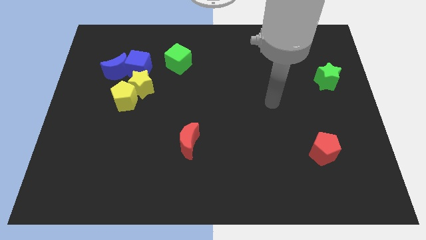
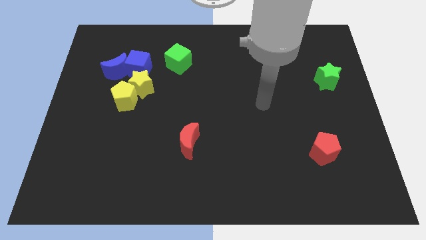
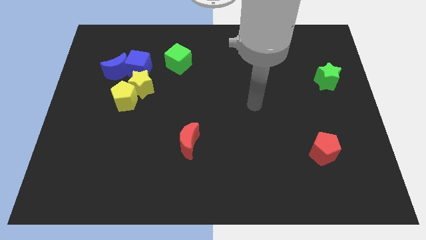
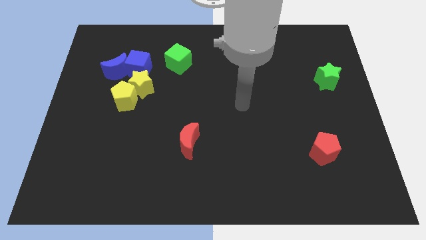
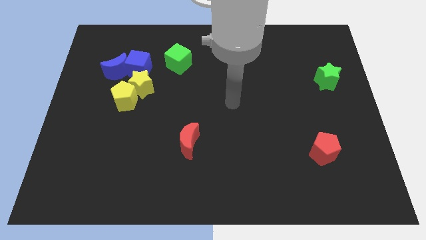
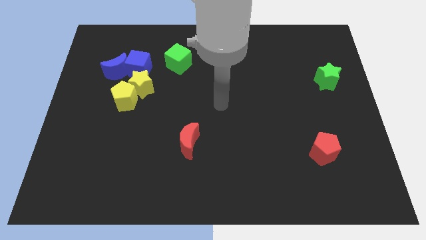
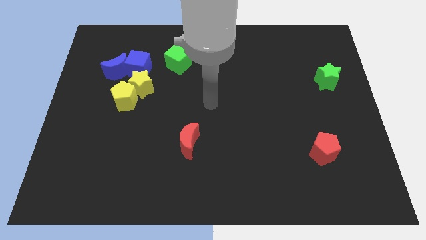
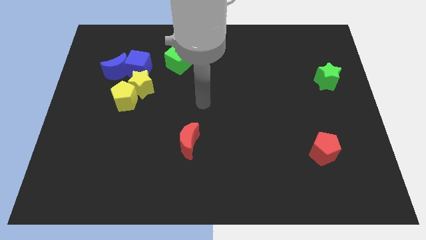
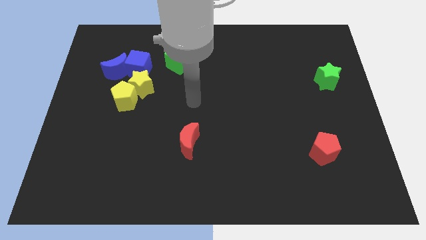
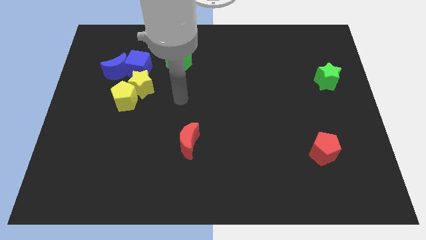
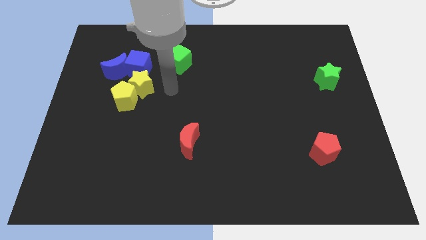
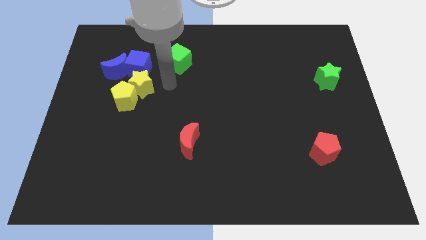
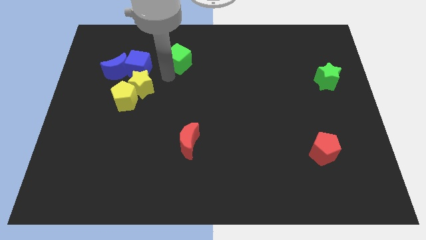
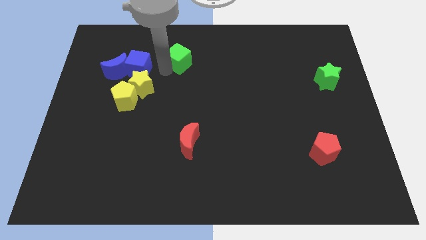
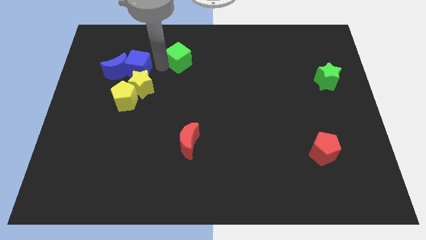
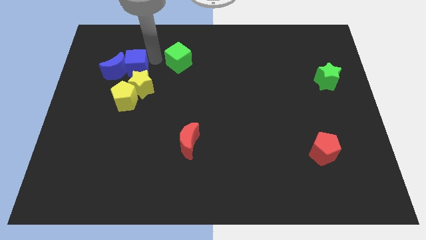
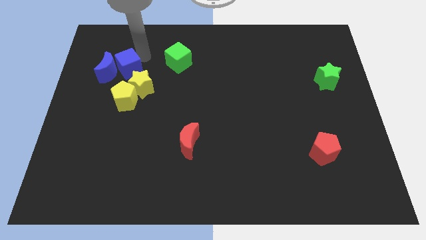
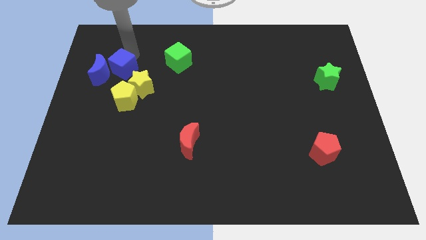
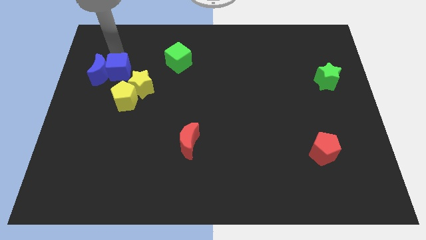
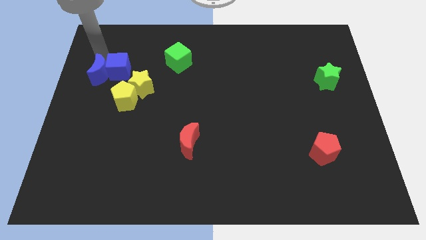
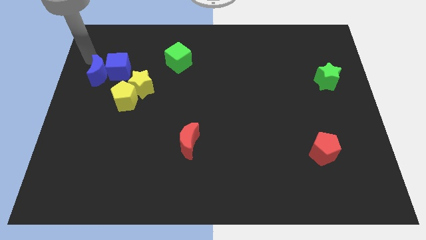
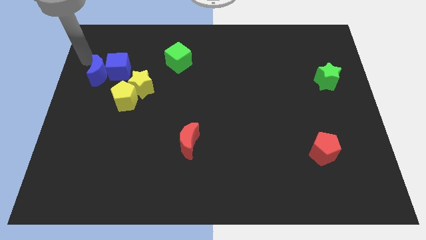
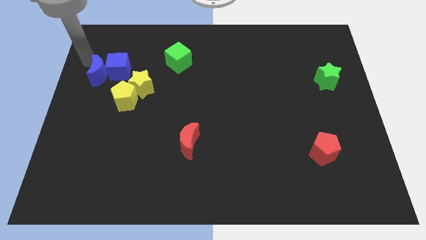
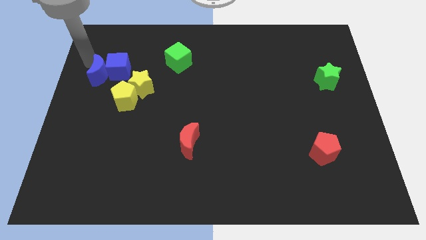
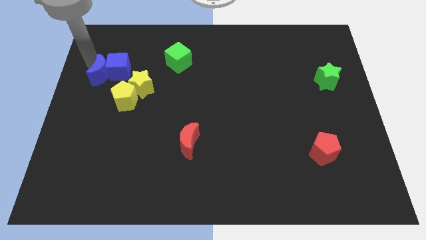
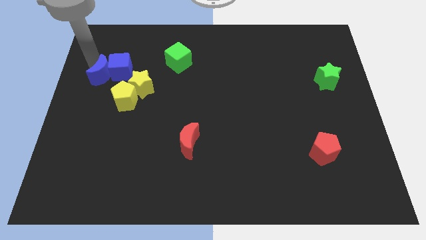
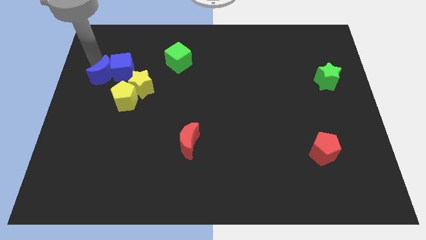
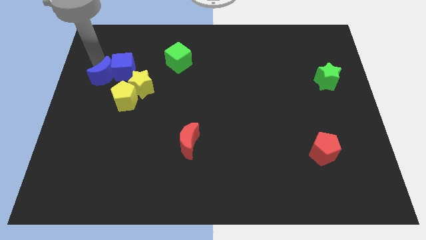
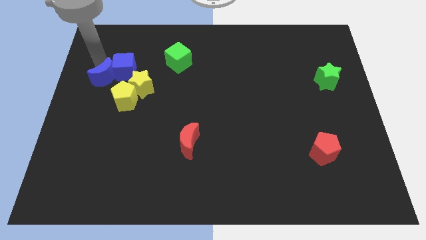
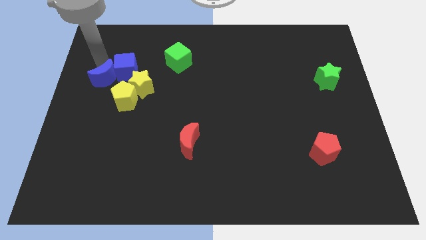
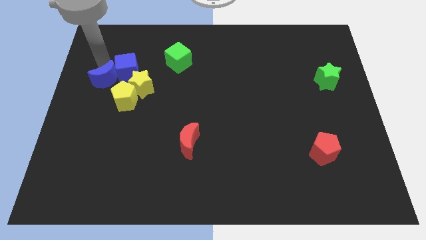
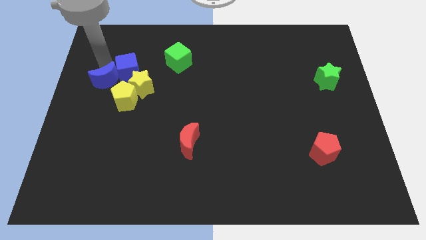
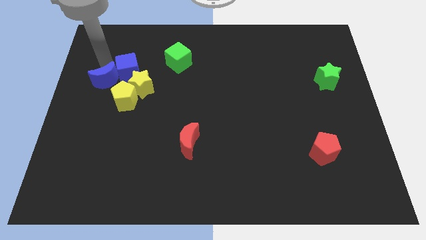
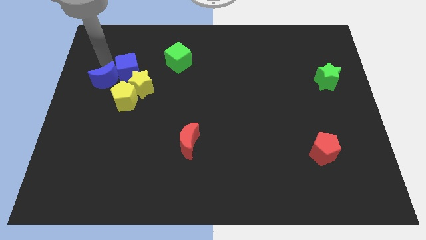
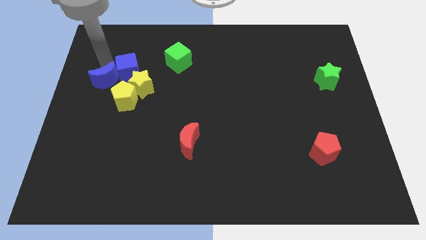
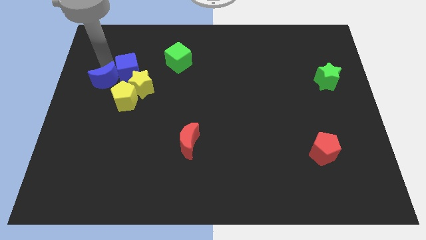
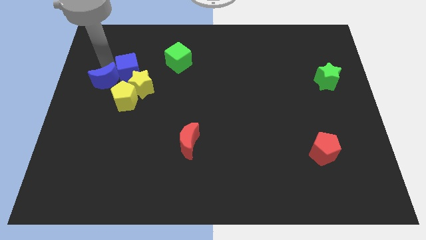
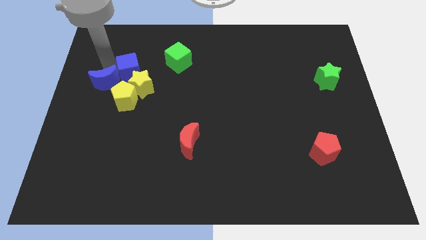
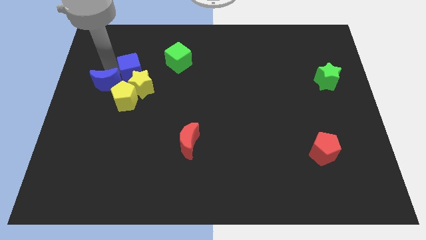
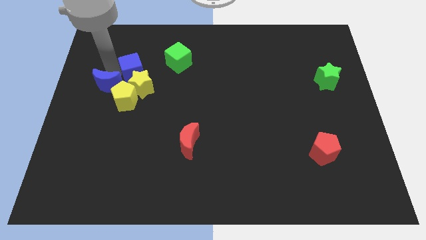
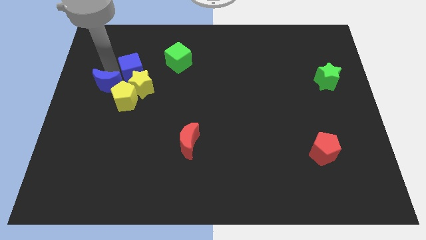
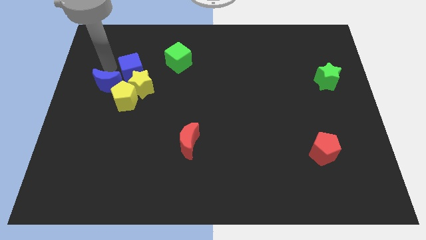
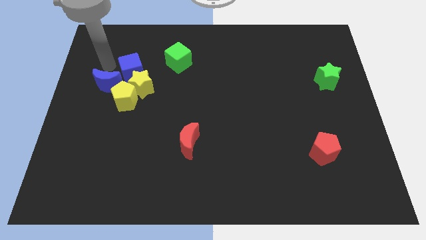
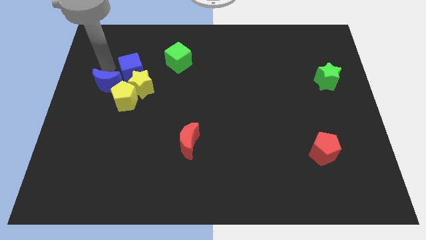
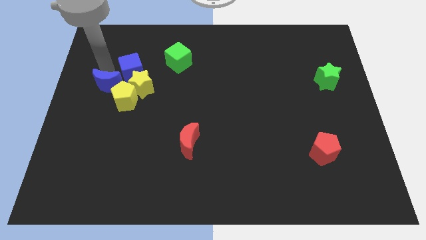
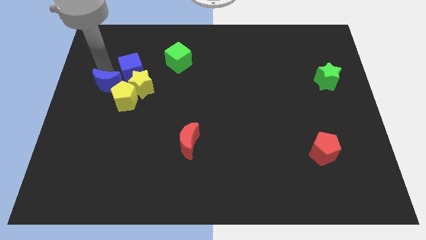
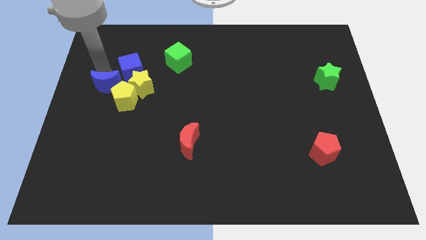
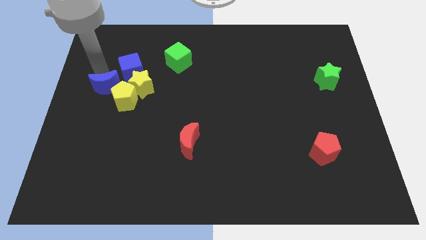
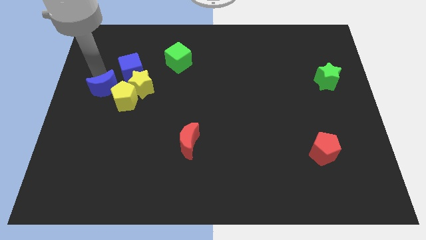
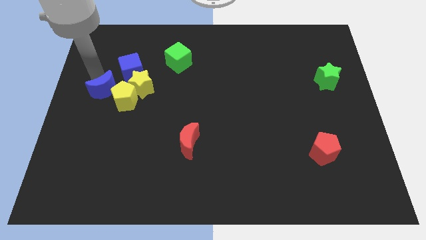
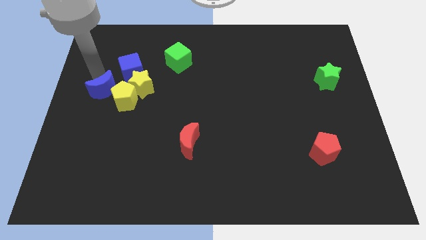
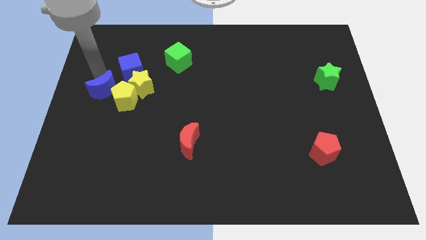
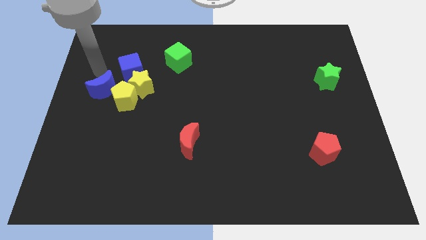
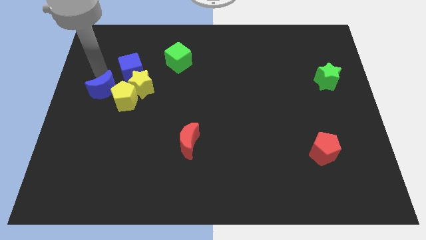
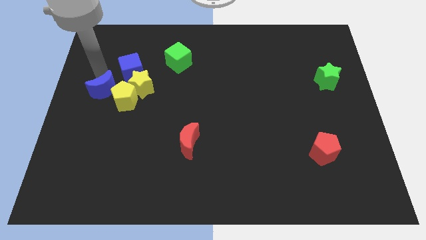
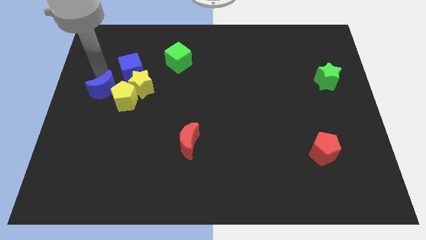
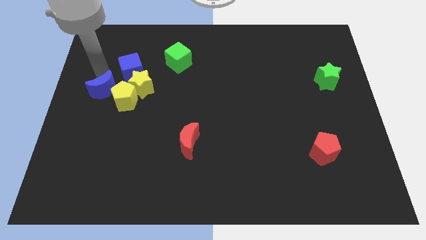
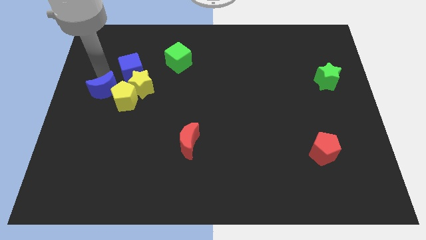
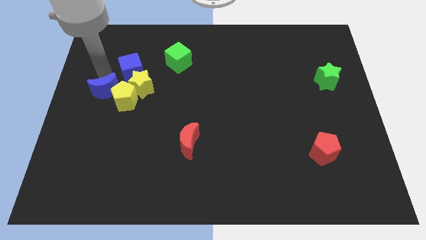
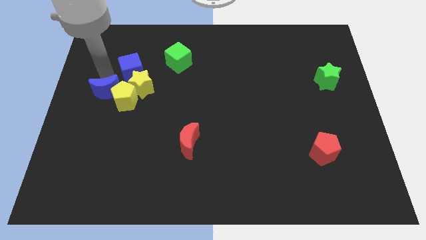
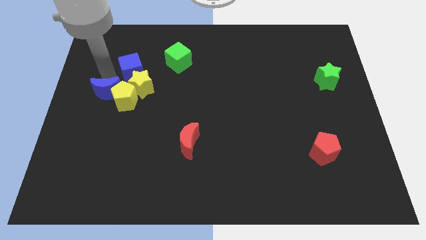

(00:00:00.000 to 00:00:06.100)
slide the blue moon to the bottom of the blue cube

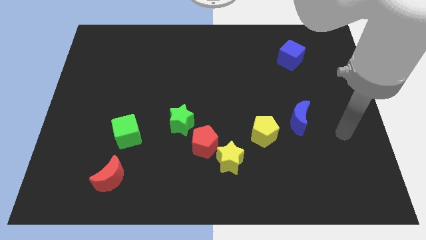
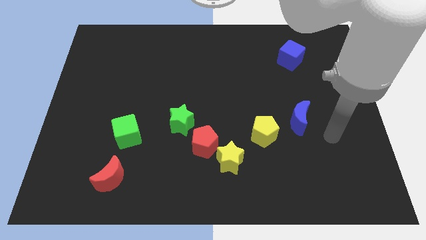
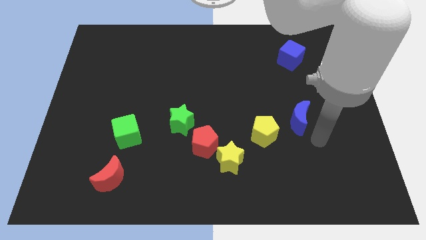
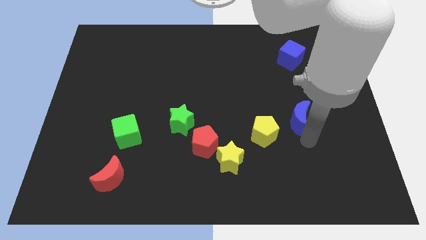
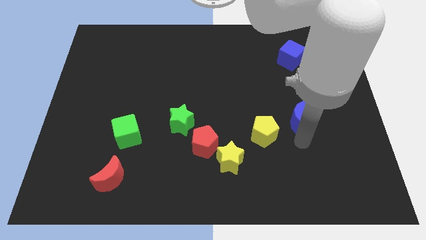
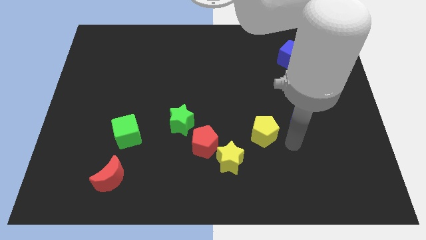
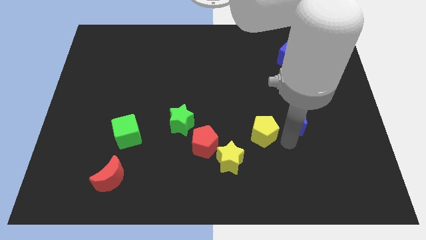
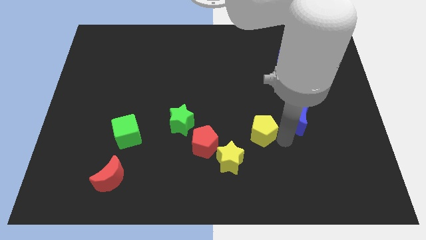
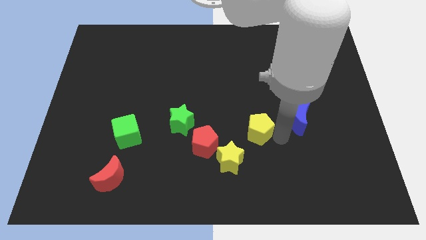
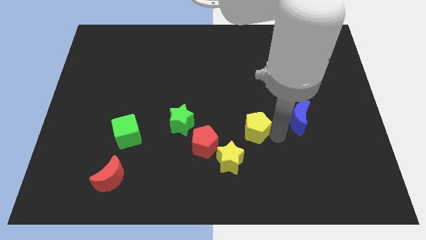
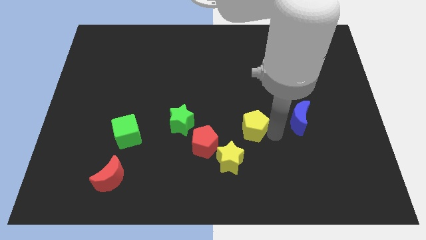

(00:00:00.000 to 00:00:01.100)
move the yellow pentagon just right of the green star
